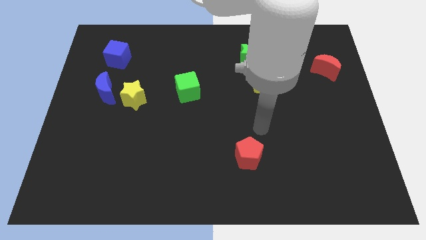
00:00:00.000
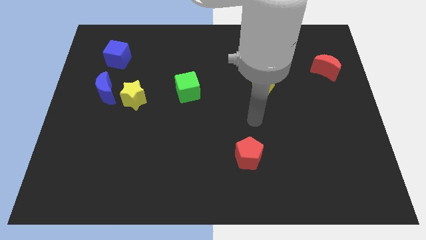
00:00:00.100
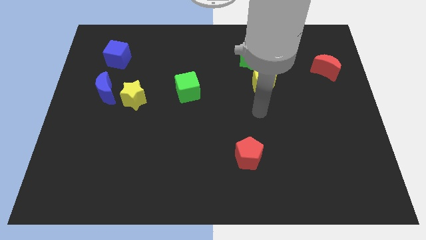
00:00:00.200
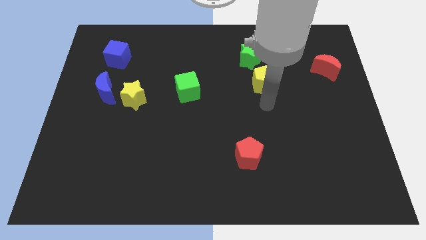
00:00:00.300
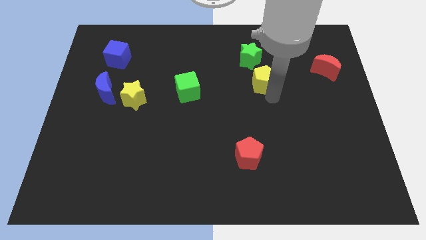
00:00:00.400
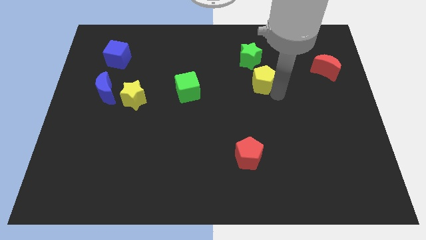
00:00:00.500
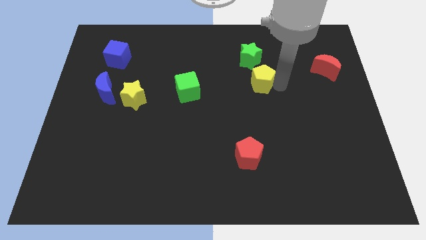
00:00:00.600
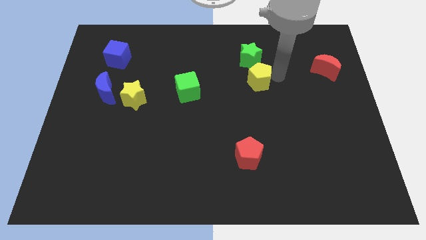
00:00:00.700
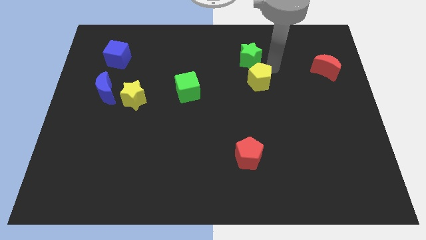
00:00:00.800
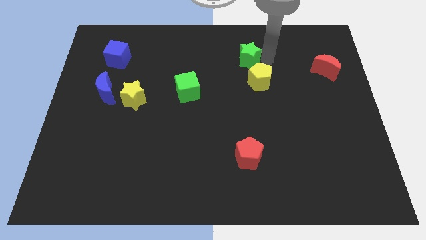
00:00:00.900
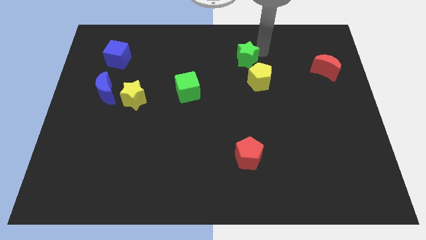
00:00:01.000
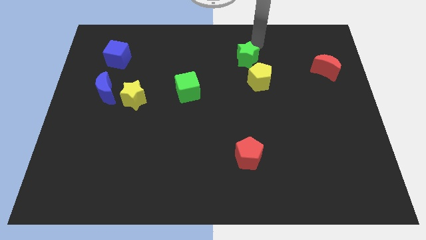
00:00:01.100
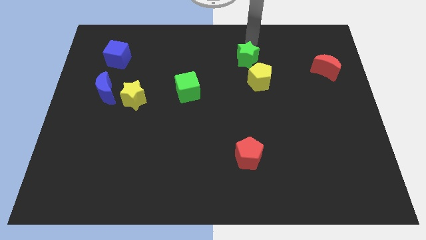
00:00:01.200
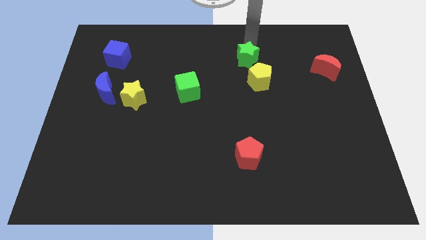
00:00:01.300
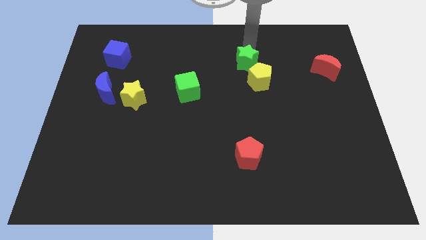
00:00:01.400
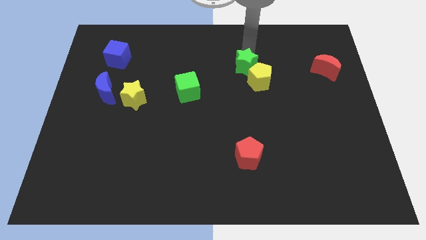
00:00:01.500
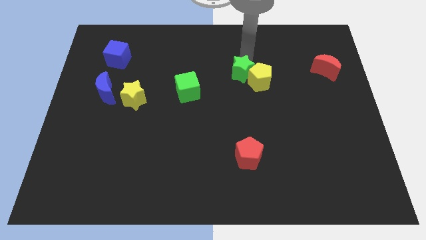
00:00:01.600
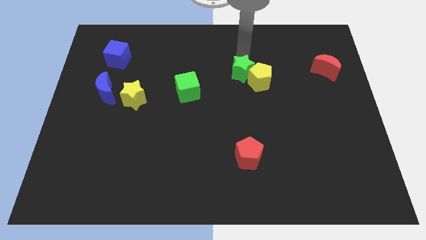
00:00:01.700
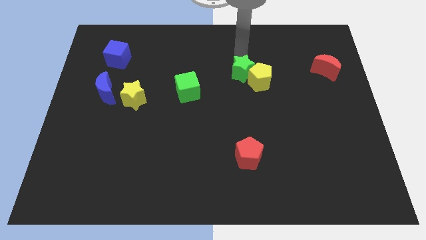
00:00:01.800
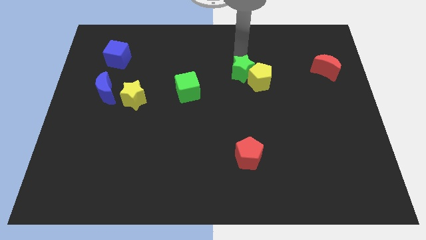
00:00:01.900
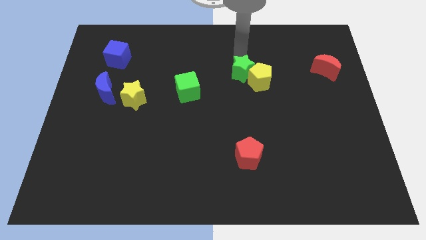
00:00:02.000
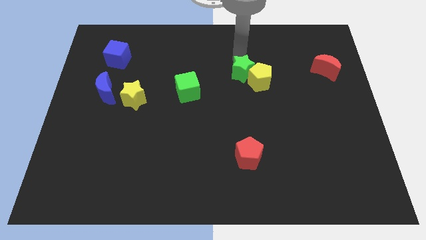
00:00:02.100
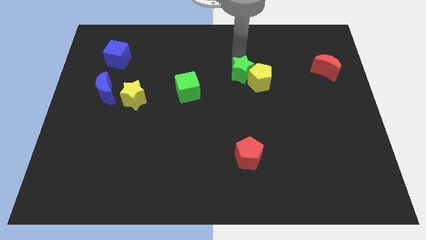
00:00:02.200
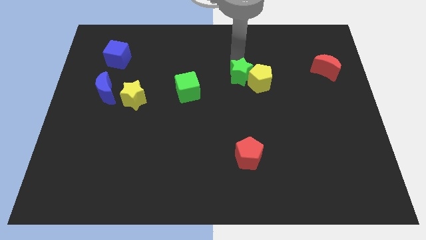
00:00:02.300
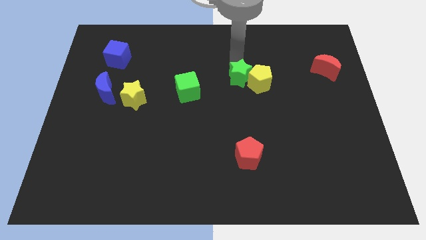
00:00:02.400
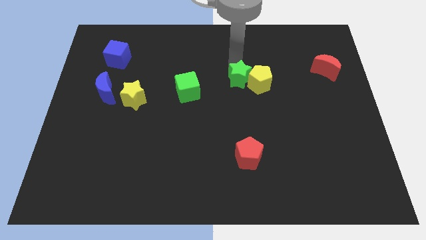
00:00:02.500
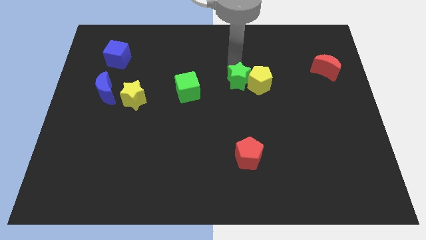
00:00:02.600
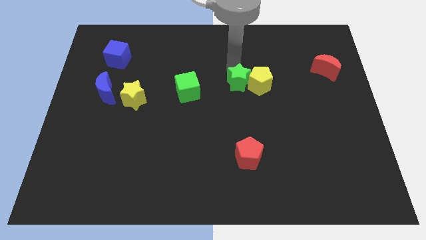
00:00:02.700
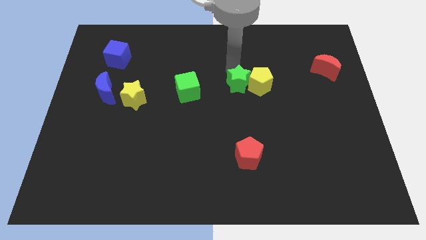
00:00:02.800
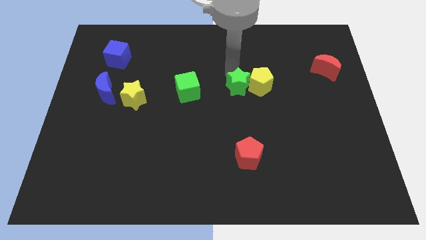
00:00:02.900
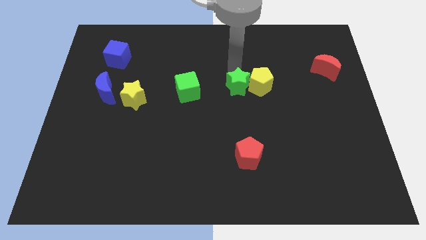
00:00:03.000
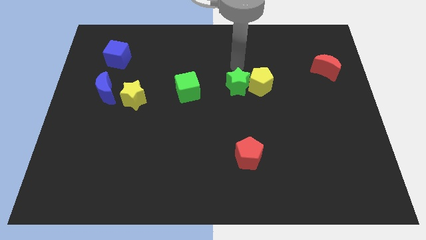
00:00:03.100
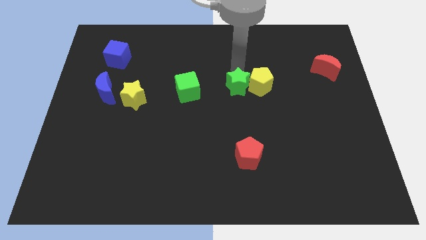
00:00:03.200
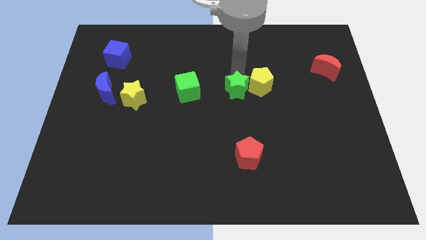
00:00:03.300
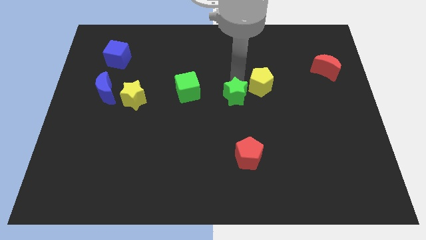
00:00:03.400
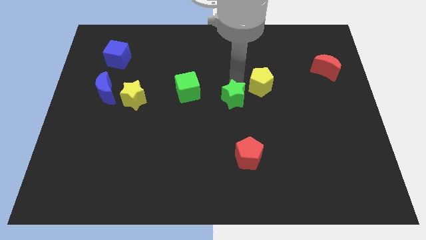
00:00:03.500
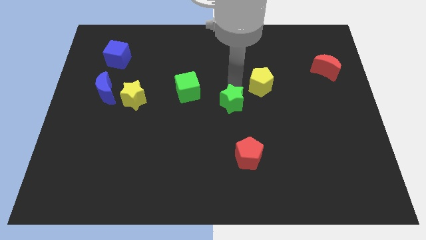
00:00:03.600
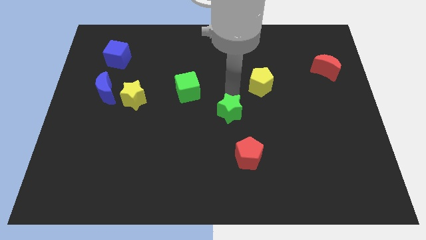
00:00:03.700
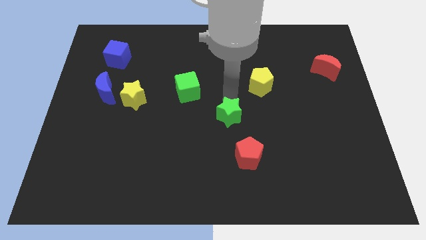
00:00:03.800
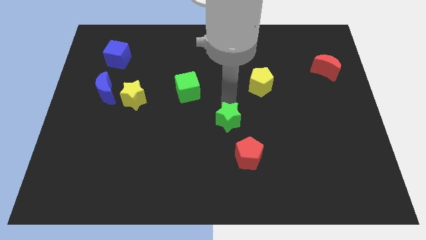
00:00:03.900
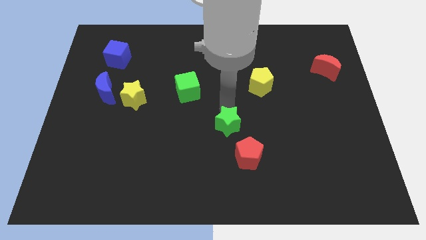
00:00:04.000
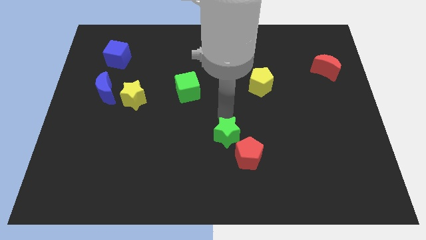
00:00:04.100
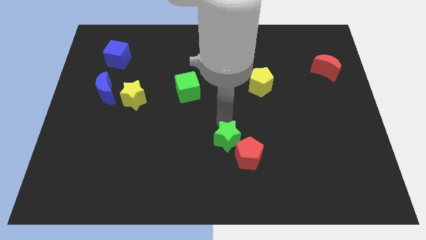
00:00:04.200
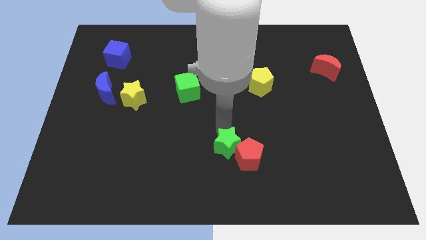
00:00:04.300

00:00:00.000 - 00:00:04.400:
slide the green star towards the red pentagon

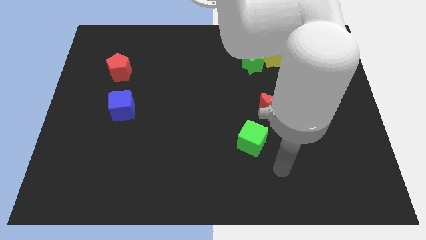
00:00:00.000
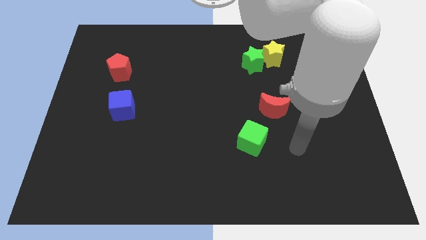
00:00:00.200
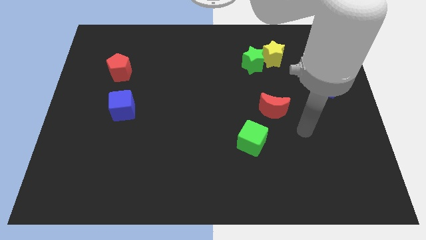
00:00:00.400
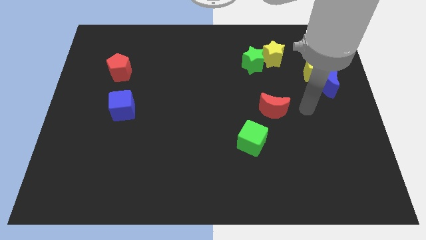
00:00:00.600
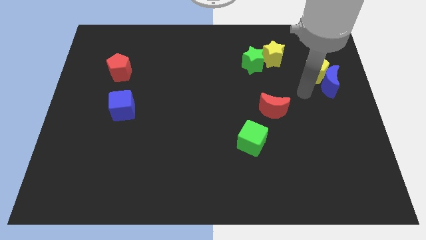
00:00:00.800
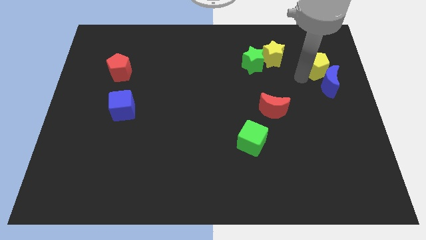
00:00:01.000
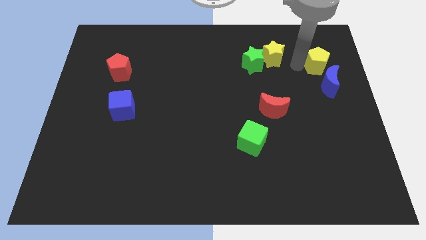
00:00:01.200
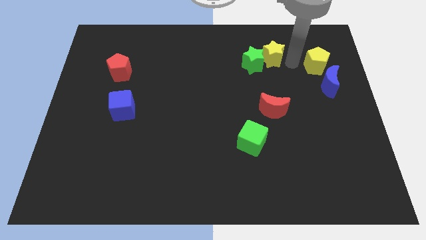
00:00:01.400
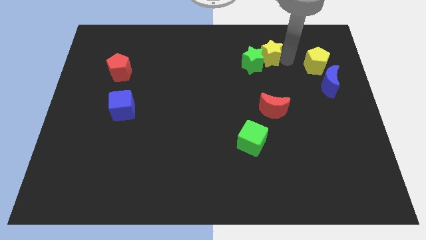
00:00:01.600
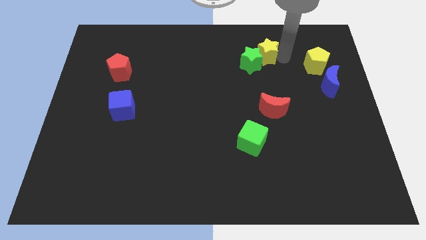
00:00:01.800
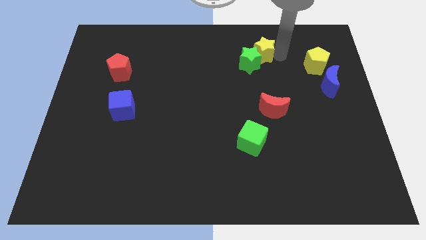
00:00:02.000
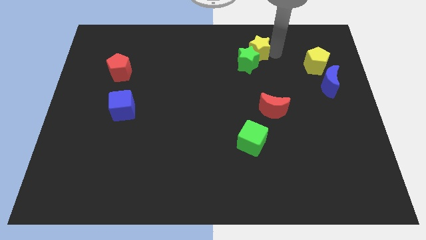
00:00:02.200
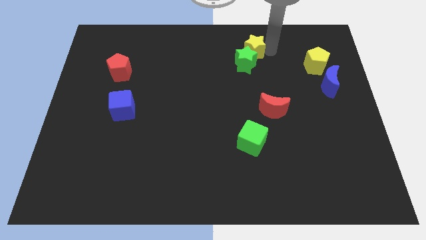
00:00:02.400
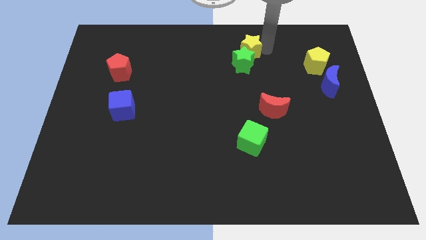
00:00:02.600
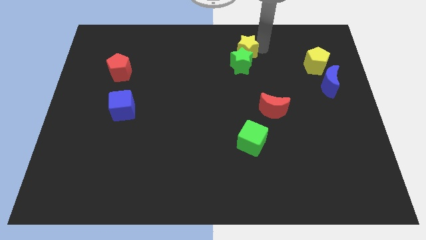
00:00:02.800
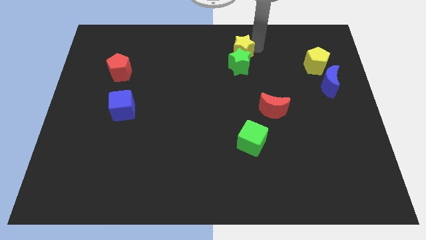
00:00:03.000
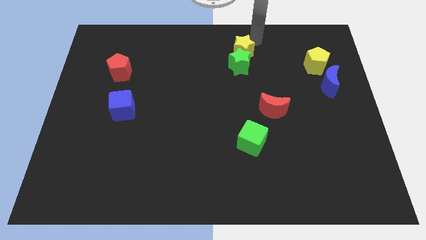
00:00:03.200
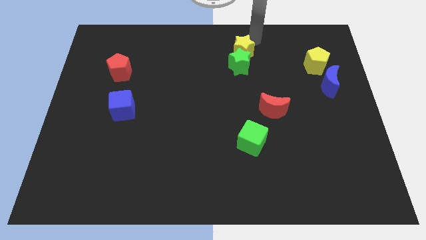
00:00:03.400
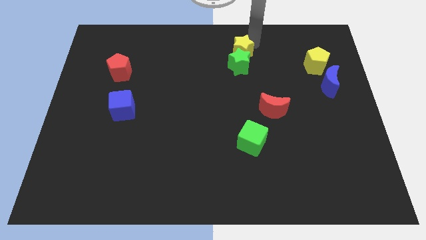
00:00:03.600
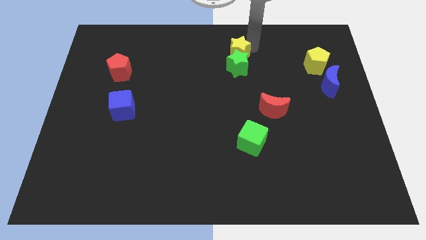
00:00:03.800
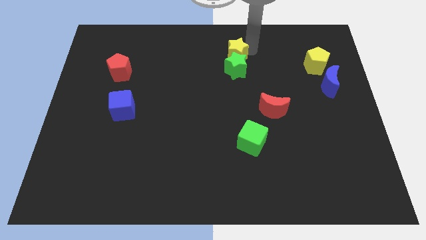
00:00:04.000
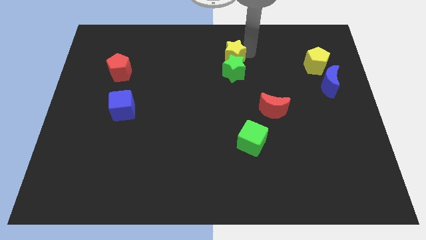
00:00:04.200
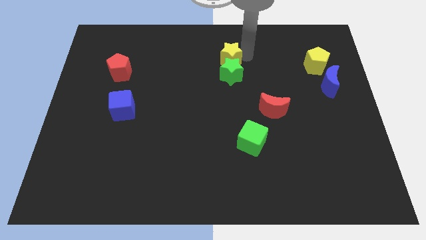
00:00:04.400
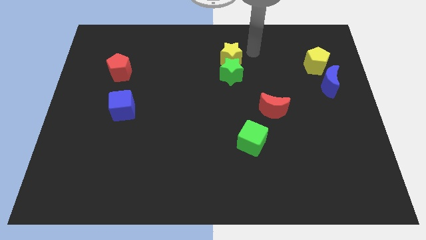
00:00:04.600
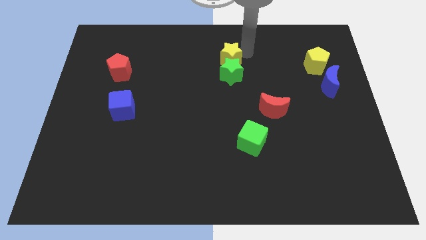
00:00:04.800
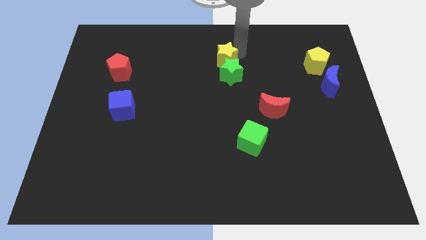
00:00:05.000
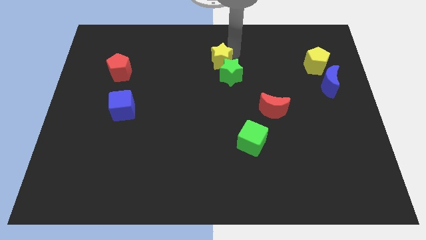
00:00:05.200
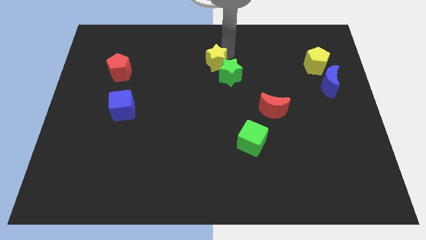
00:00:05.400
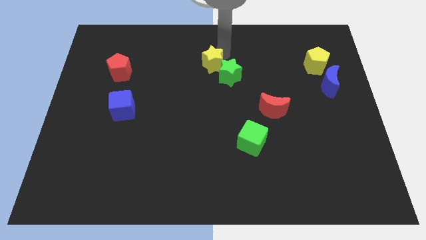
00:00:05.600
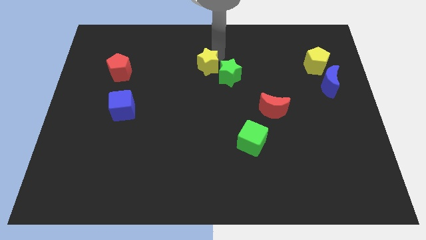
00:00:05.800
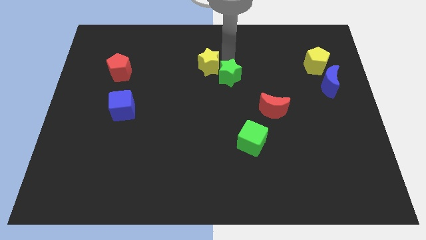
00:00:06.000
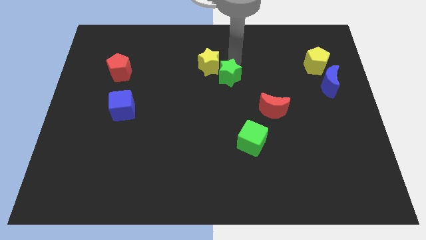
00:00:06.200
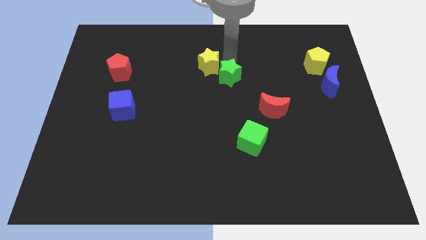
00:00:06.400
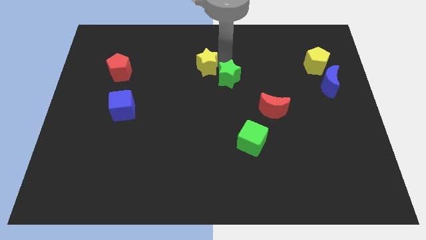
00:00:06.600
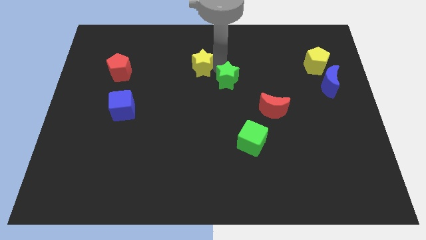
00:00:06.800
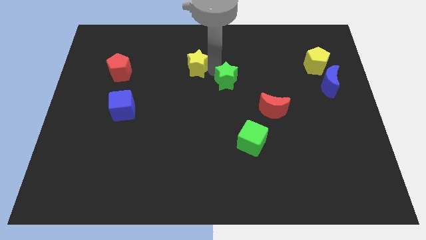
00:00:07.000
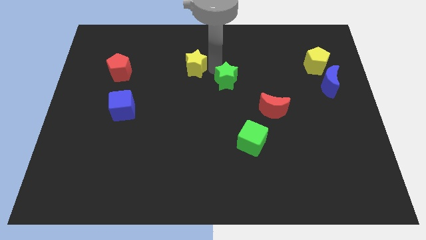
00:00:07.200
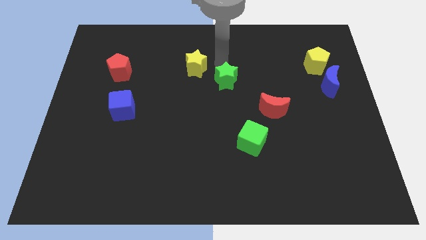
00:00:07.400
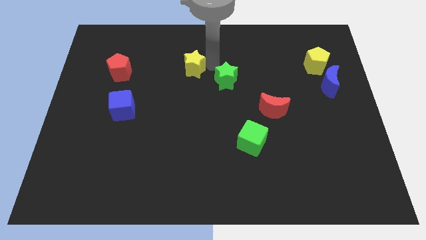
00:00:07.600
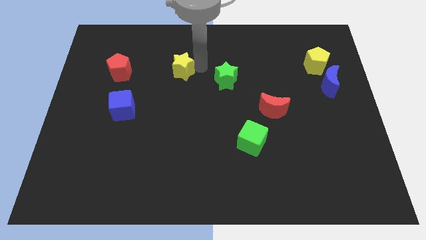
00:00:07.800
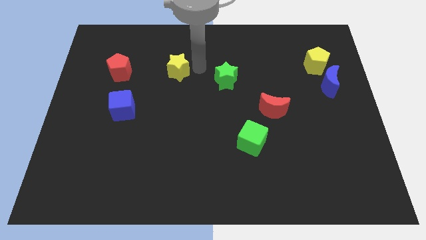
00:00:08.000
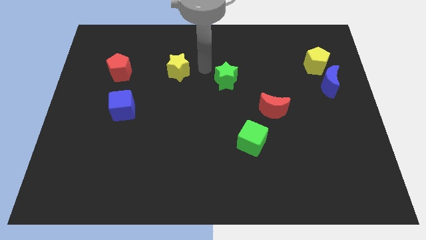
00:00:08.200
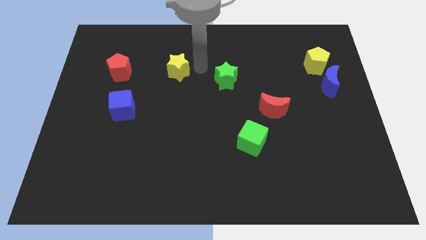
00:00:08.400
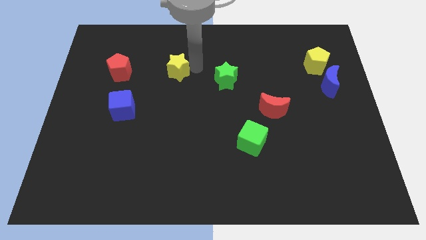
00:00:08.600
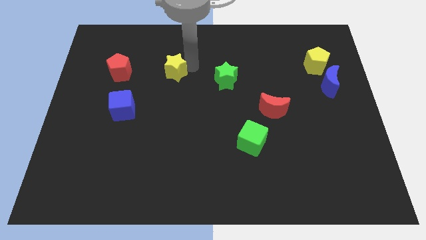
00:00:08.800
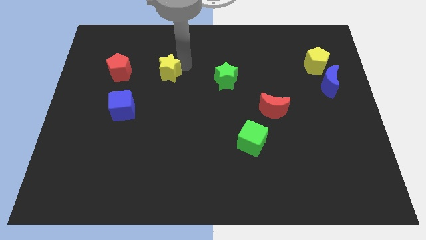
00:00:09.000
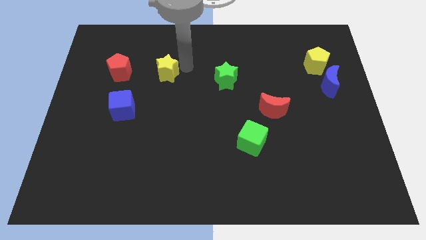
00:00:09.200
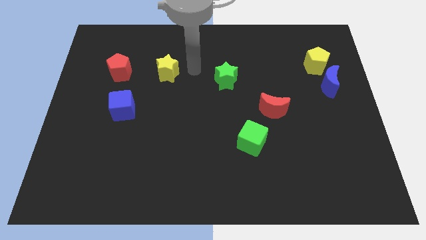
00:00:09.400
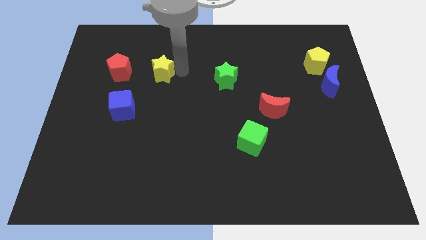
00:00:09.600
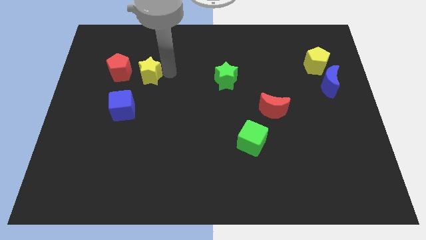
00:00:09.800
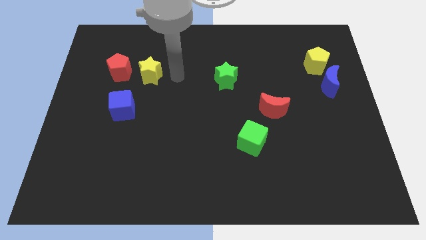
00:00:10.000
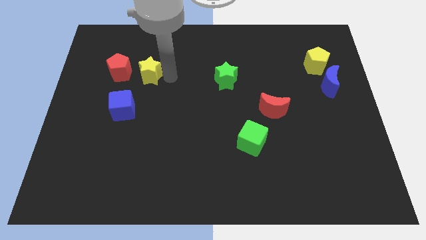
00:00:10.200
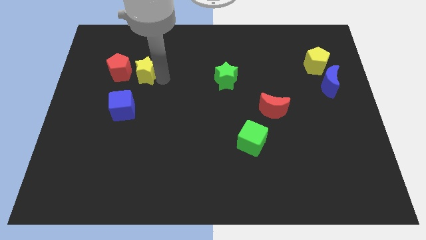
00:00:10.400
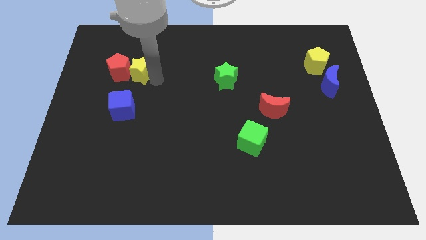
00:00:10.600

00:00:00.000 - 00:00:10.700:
put the yellow star towards the red pentagon
